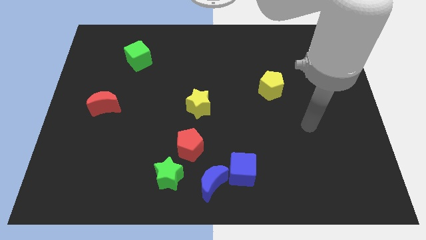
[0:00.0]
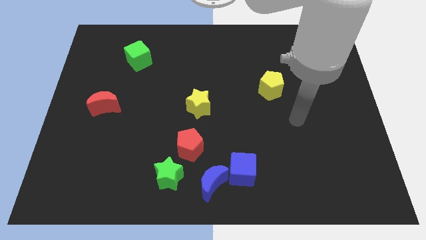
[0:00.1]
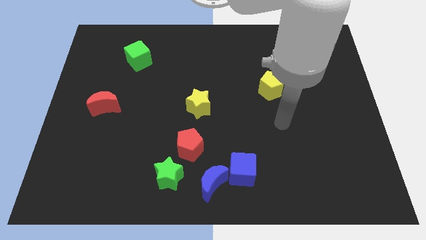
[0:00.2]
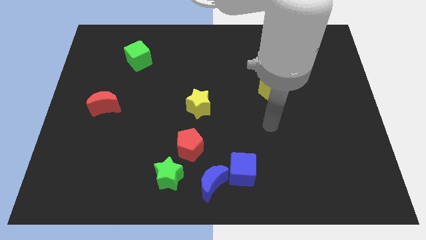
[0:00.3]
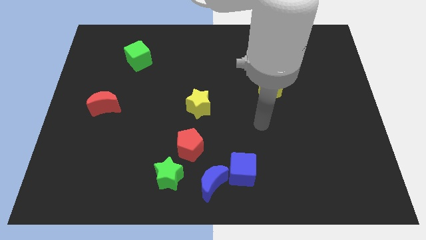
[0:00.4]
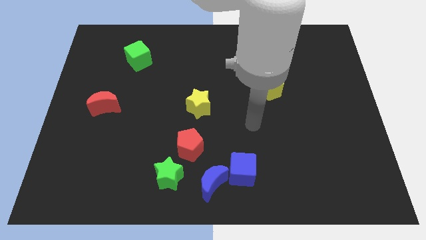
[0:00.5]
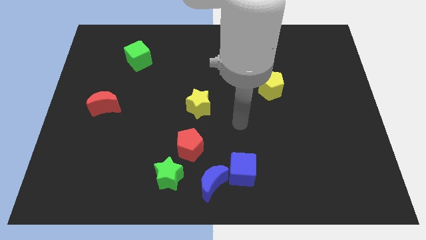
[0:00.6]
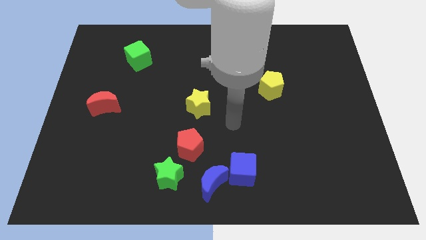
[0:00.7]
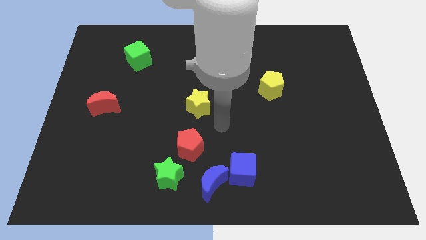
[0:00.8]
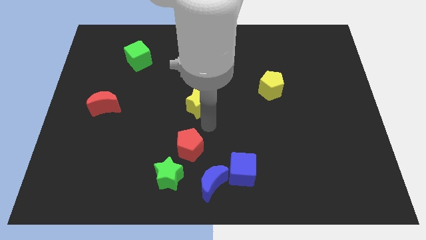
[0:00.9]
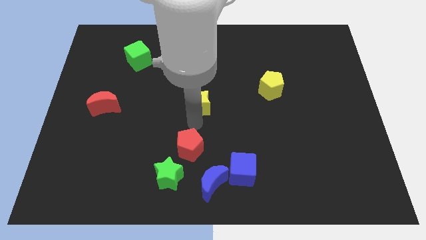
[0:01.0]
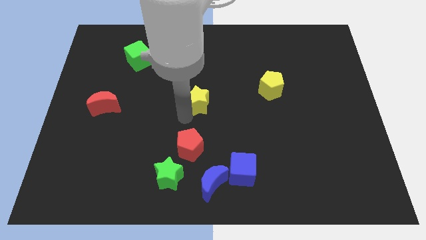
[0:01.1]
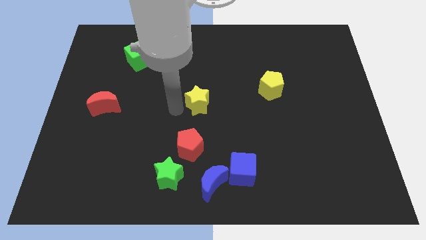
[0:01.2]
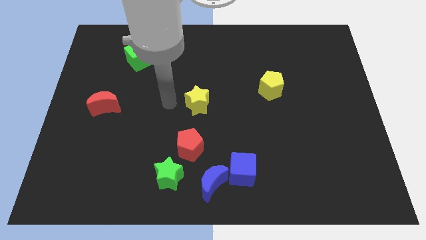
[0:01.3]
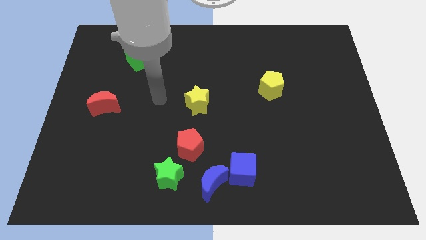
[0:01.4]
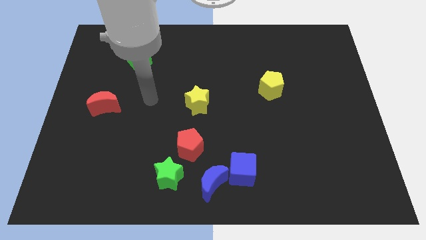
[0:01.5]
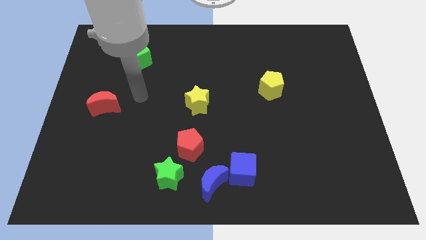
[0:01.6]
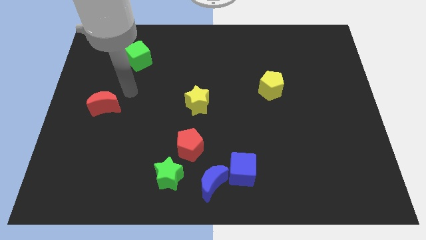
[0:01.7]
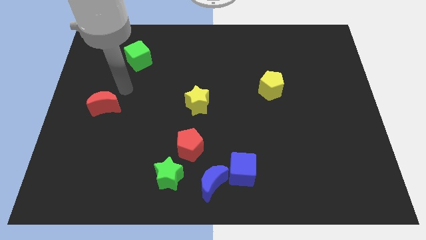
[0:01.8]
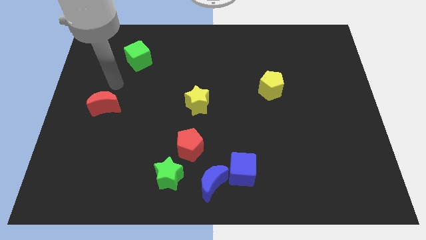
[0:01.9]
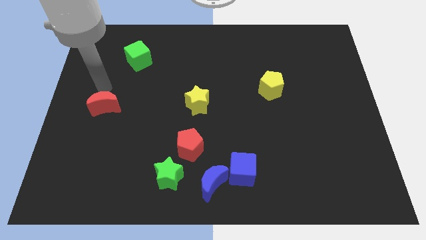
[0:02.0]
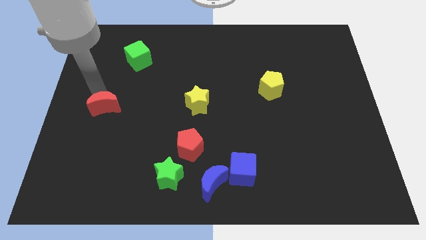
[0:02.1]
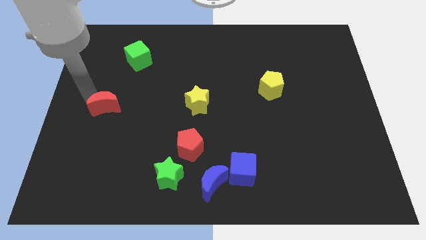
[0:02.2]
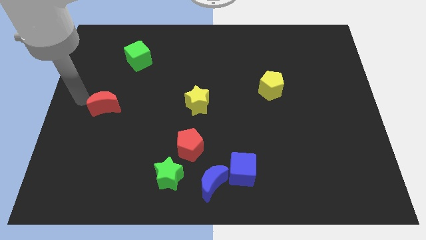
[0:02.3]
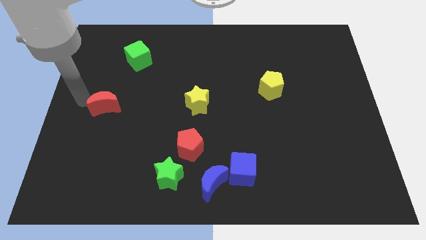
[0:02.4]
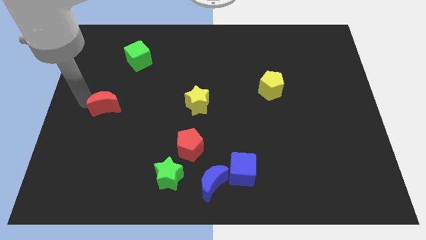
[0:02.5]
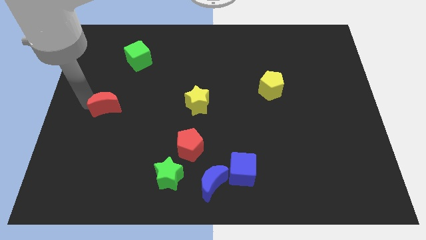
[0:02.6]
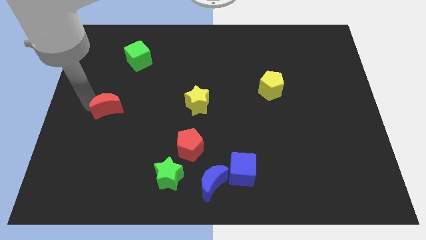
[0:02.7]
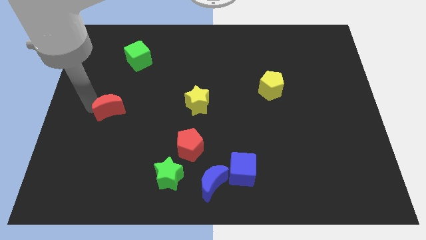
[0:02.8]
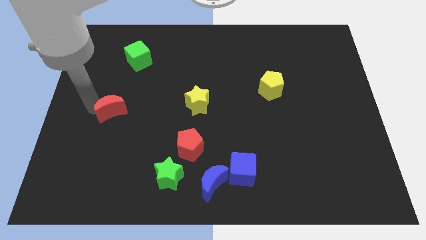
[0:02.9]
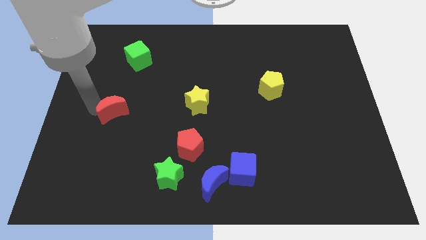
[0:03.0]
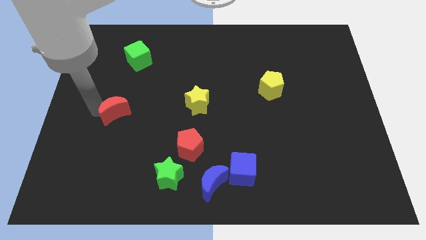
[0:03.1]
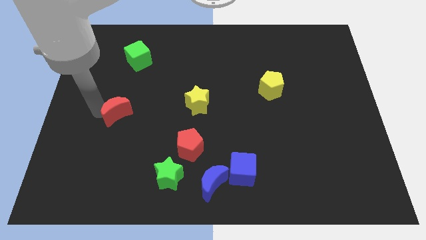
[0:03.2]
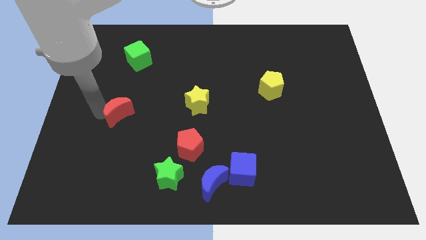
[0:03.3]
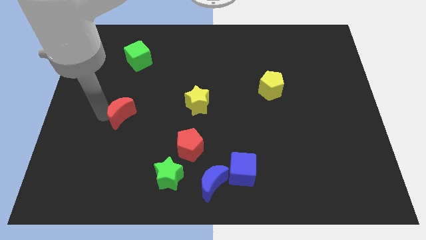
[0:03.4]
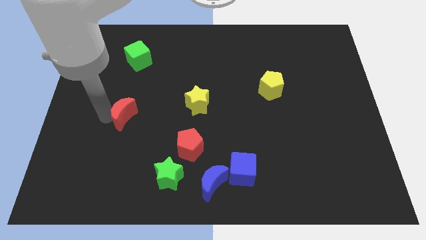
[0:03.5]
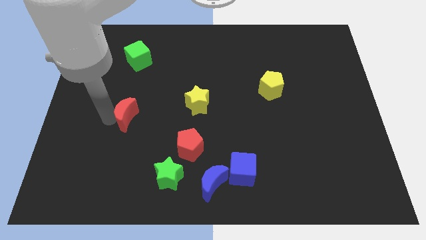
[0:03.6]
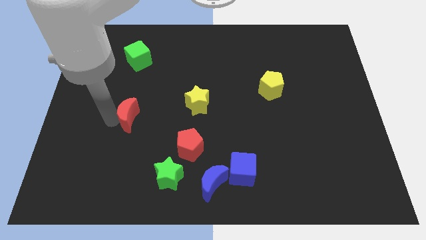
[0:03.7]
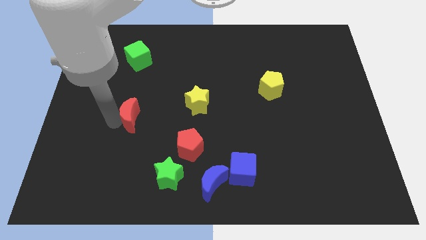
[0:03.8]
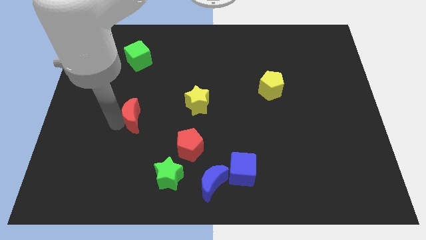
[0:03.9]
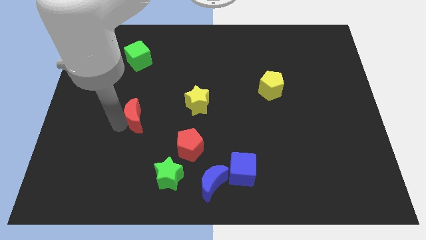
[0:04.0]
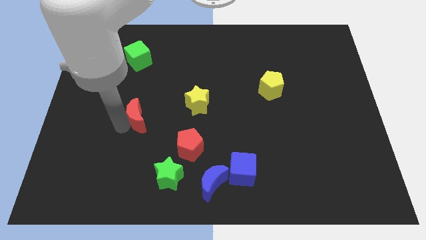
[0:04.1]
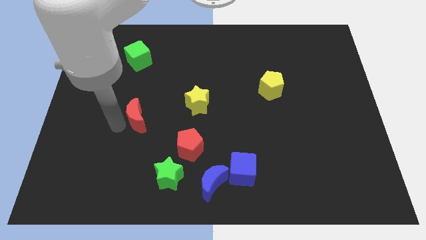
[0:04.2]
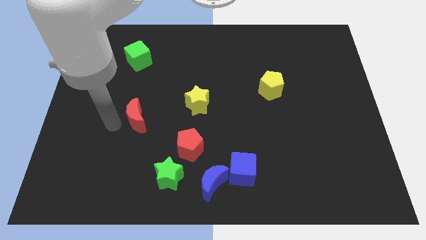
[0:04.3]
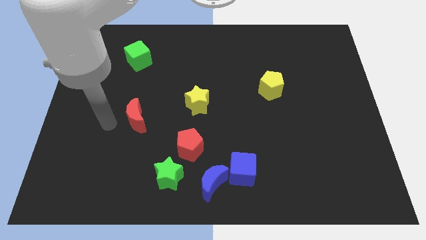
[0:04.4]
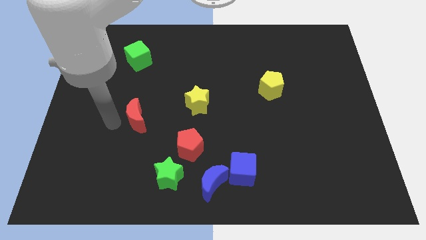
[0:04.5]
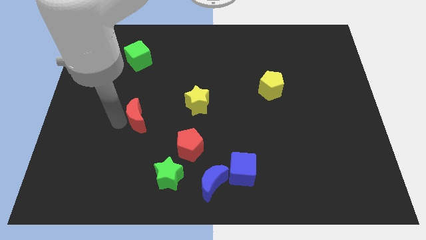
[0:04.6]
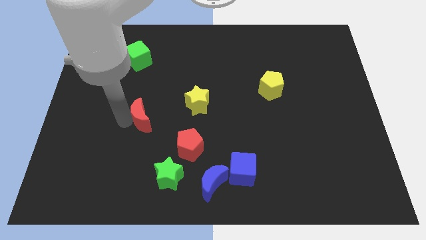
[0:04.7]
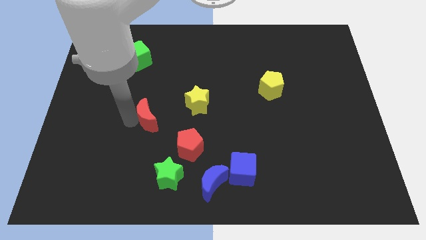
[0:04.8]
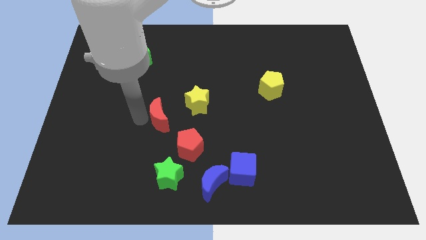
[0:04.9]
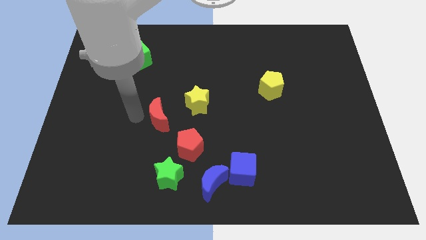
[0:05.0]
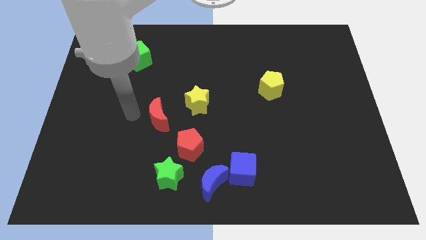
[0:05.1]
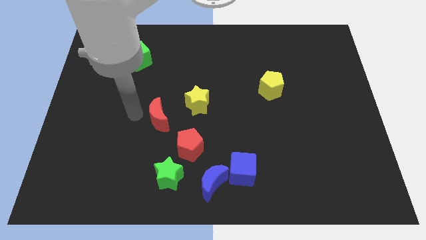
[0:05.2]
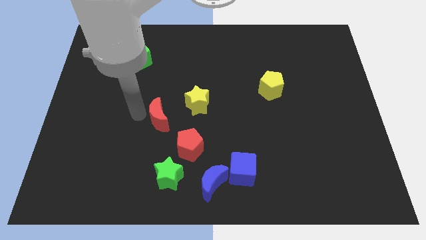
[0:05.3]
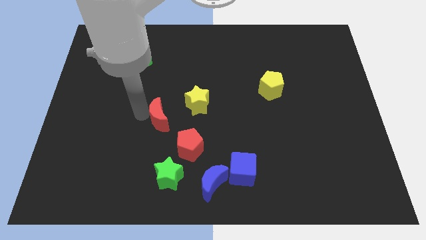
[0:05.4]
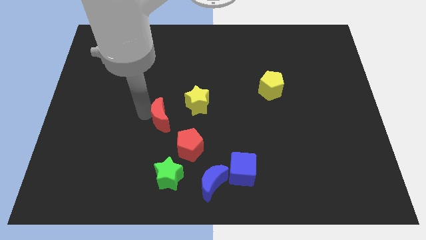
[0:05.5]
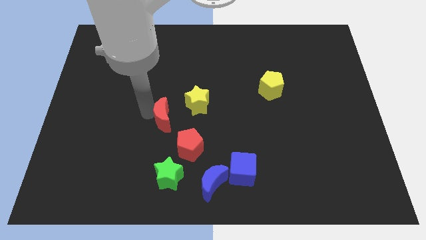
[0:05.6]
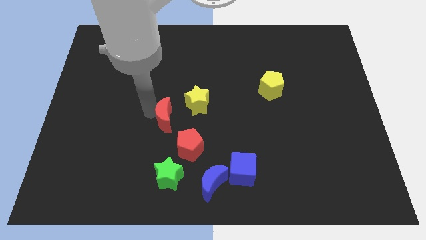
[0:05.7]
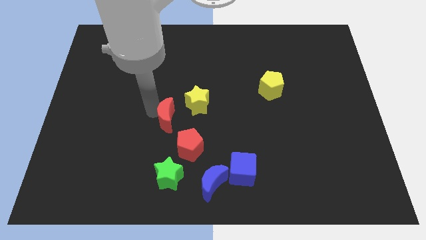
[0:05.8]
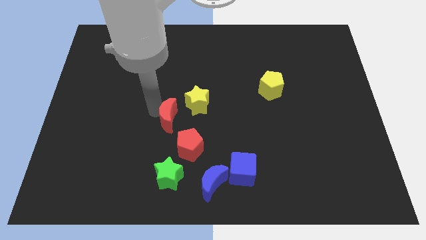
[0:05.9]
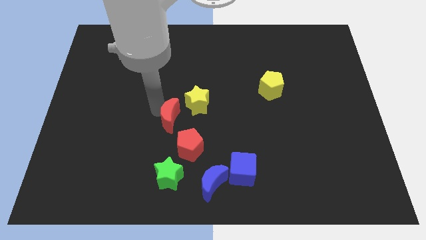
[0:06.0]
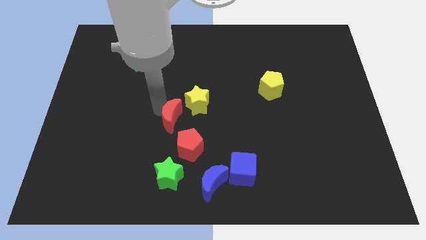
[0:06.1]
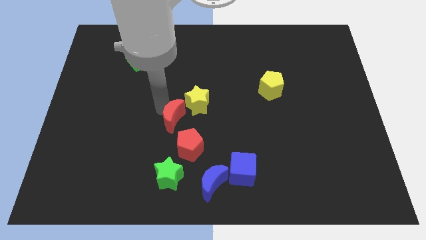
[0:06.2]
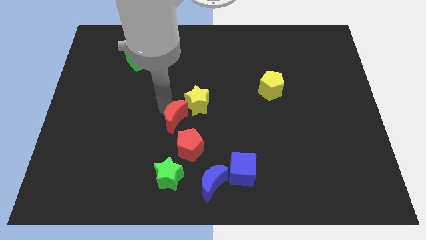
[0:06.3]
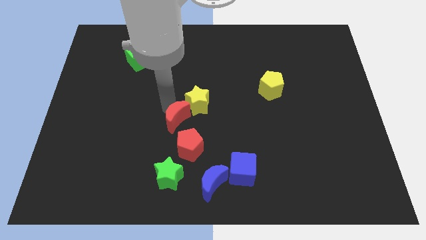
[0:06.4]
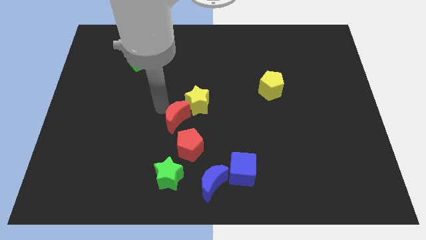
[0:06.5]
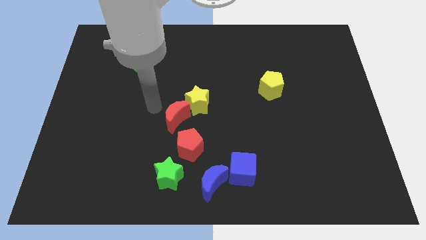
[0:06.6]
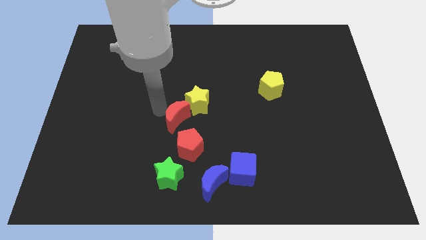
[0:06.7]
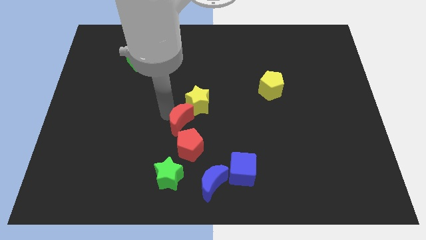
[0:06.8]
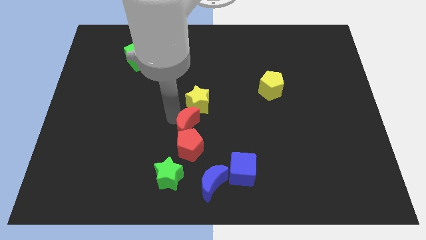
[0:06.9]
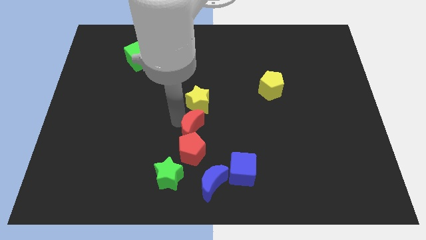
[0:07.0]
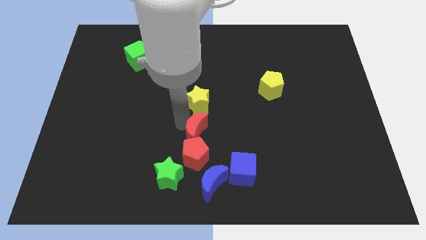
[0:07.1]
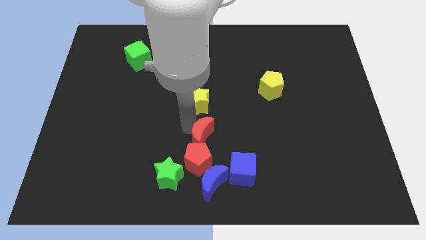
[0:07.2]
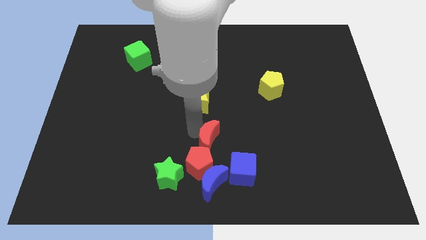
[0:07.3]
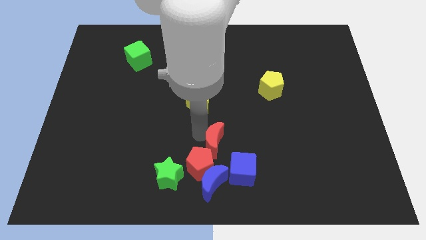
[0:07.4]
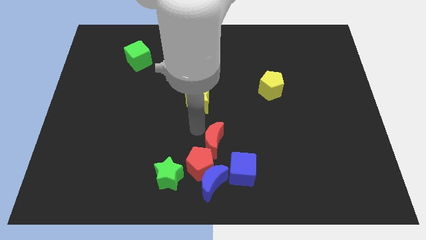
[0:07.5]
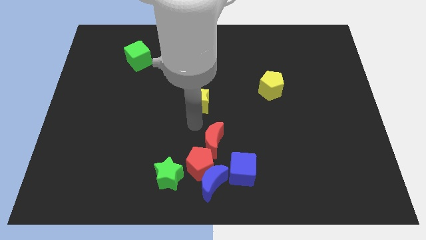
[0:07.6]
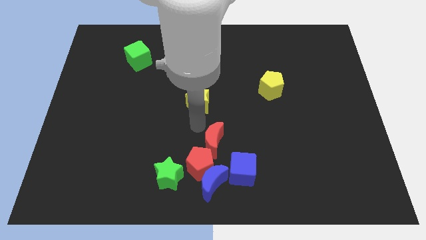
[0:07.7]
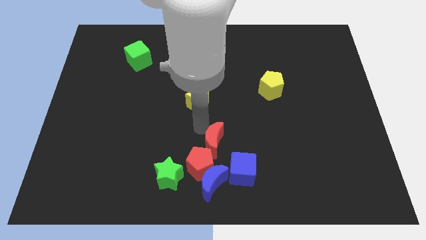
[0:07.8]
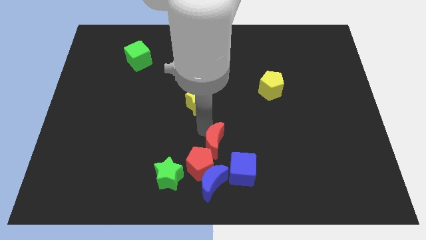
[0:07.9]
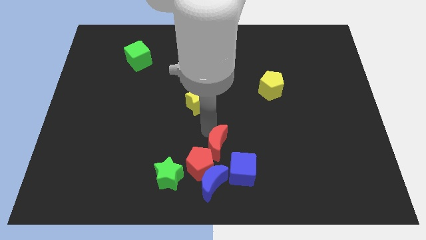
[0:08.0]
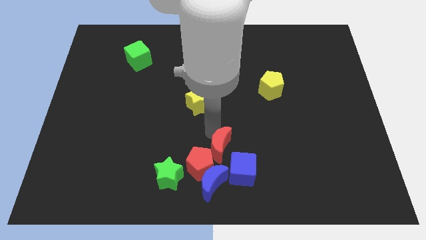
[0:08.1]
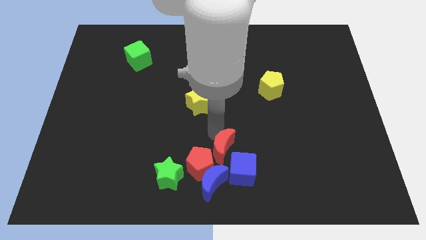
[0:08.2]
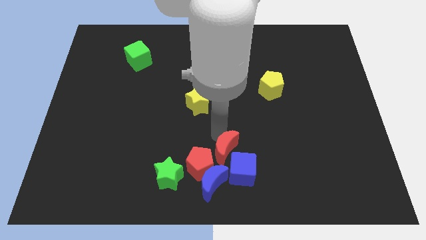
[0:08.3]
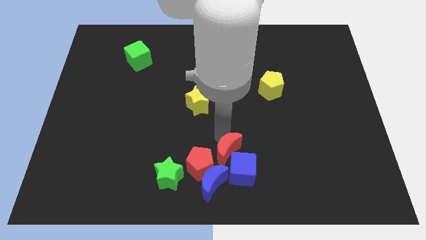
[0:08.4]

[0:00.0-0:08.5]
push the red moon next to the blue cube
